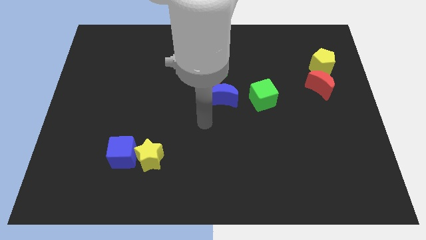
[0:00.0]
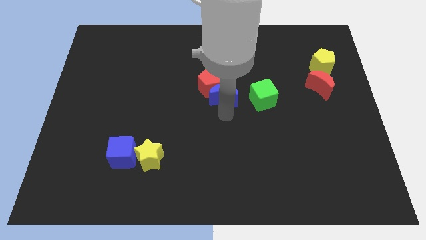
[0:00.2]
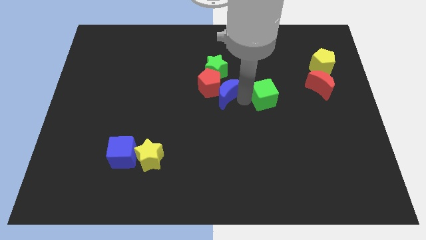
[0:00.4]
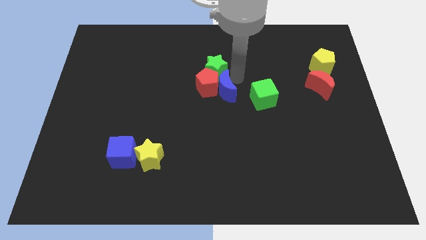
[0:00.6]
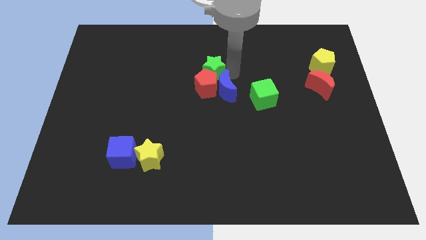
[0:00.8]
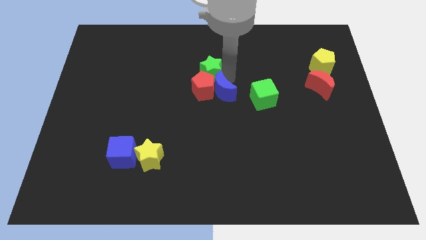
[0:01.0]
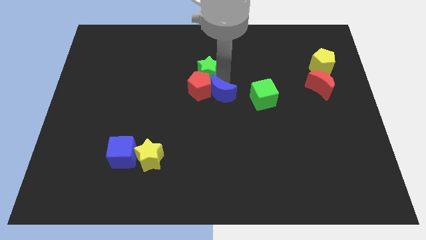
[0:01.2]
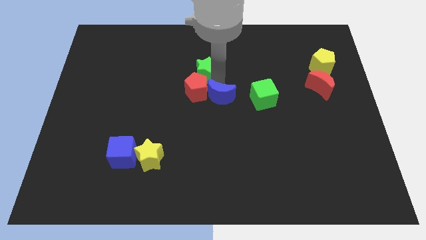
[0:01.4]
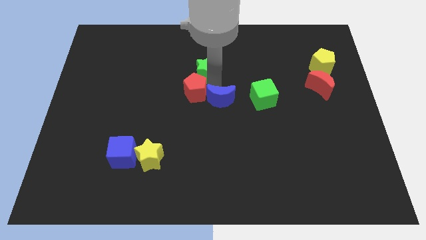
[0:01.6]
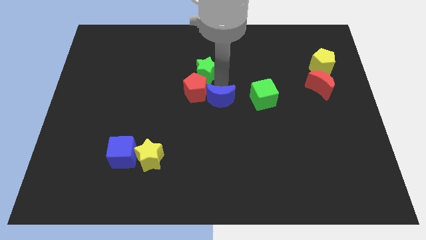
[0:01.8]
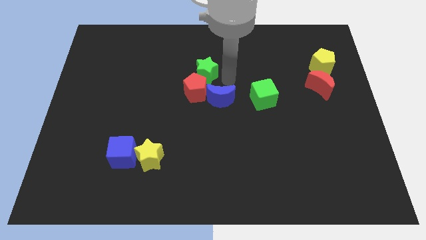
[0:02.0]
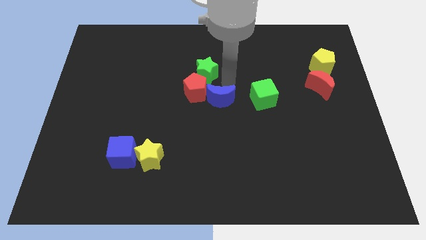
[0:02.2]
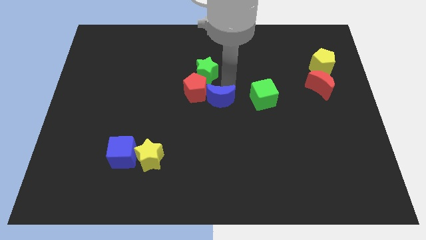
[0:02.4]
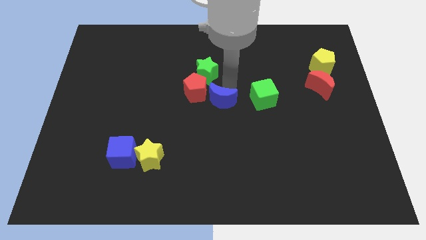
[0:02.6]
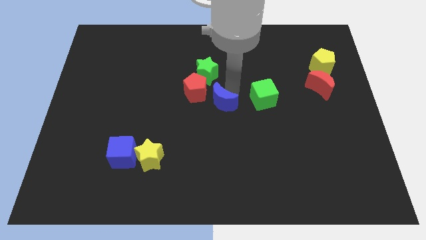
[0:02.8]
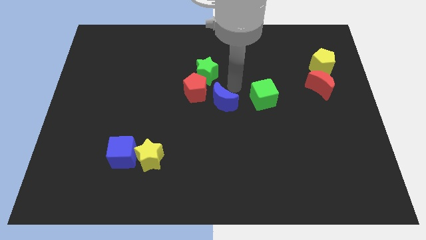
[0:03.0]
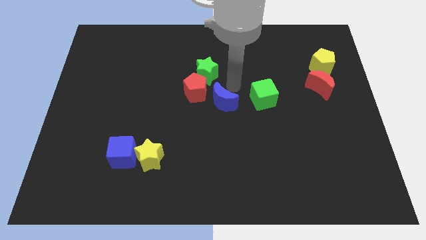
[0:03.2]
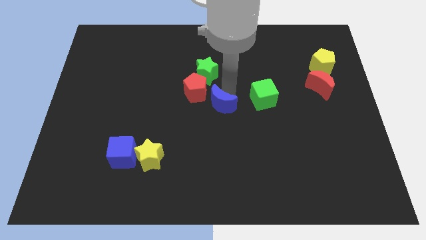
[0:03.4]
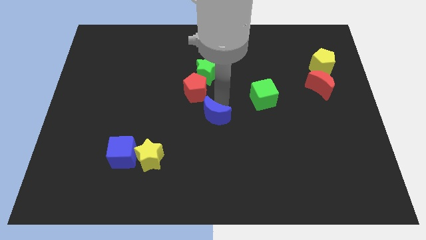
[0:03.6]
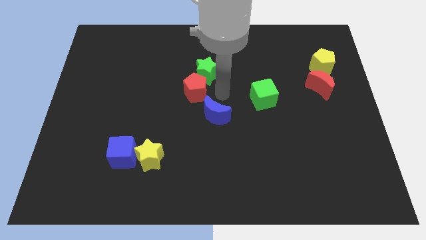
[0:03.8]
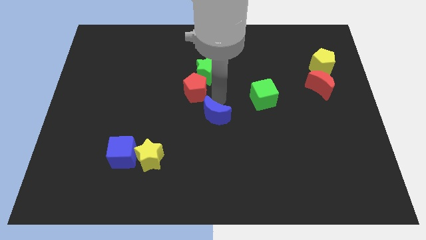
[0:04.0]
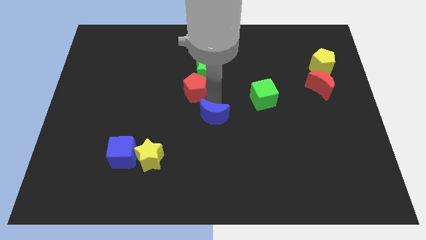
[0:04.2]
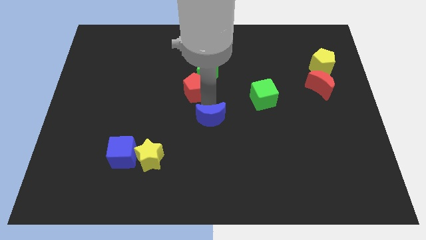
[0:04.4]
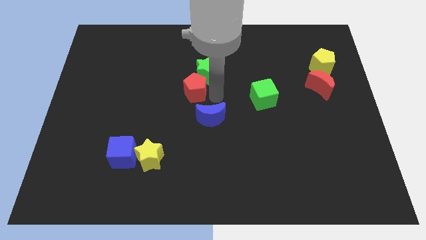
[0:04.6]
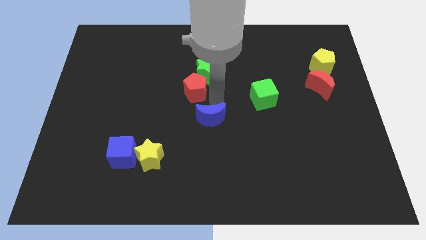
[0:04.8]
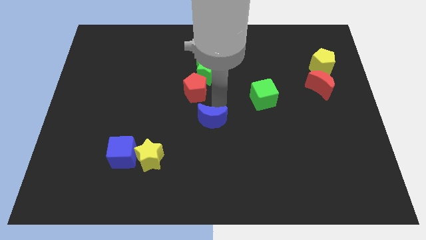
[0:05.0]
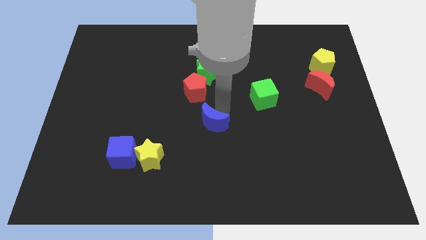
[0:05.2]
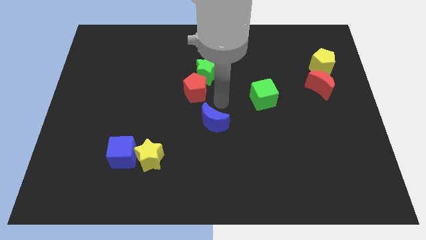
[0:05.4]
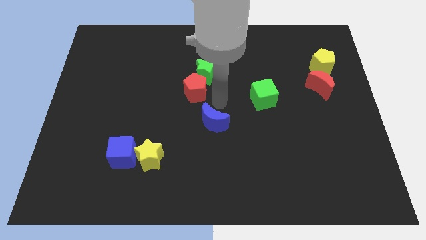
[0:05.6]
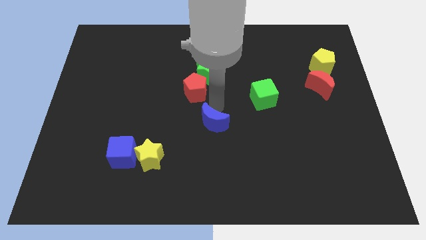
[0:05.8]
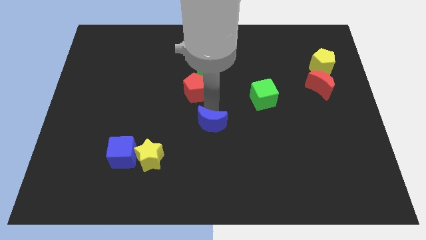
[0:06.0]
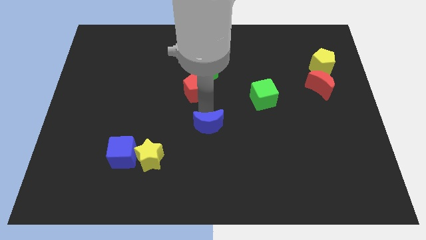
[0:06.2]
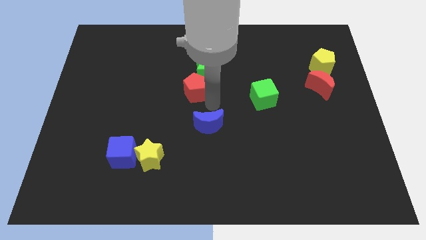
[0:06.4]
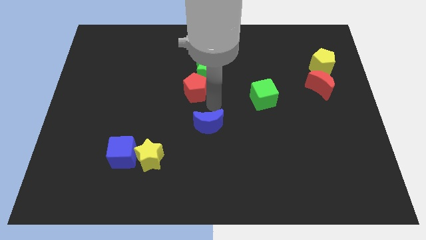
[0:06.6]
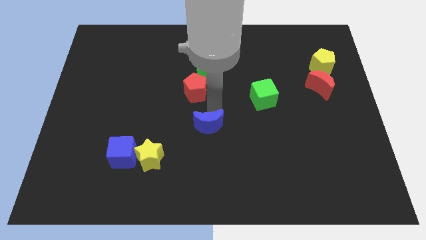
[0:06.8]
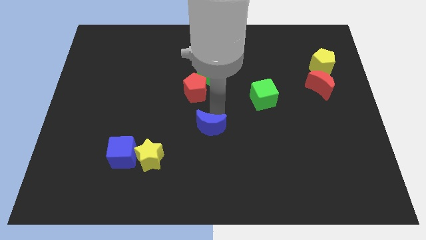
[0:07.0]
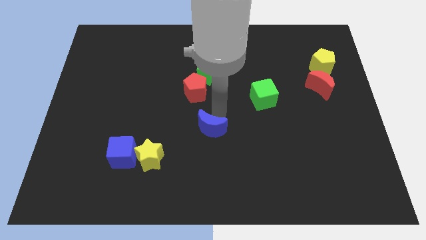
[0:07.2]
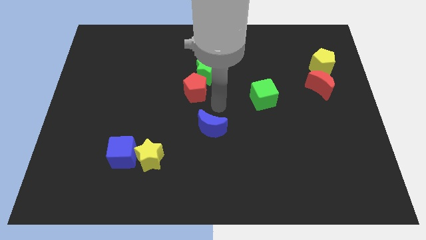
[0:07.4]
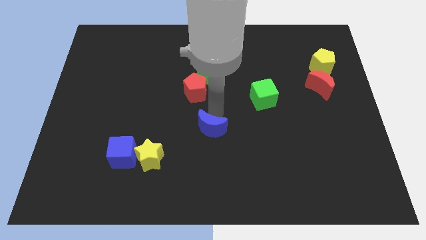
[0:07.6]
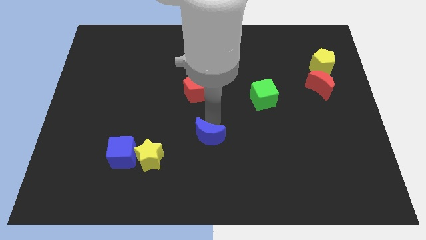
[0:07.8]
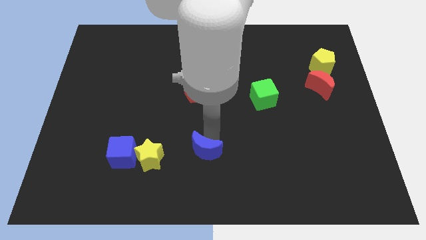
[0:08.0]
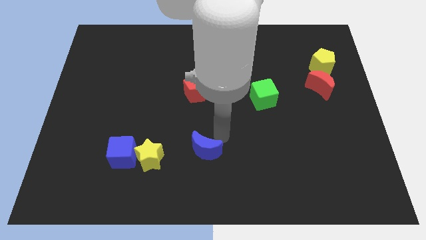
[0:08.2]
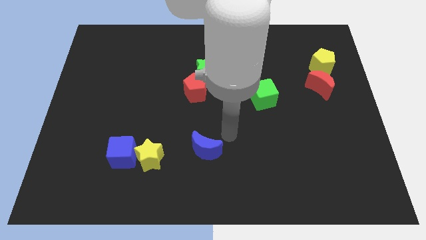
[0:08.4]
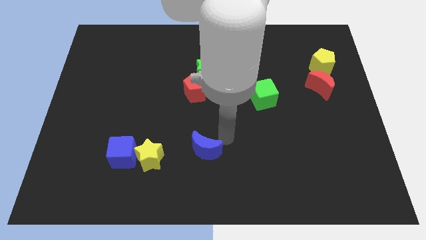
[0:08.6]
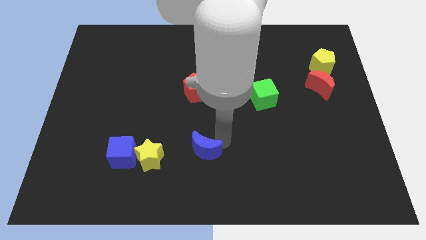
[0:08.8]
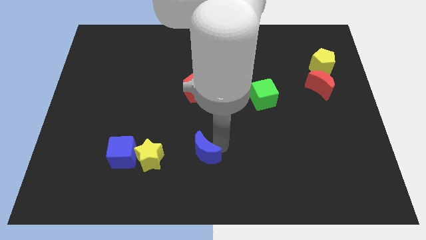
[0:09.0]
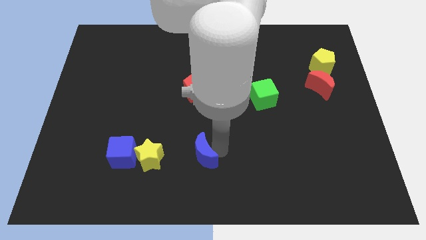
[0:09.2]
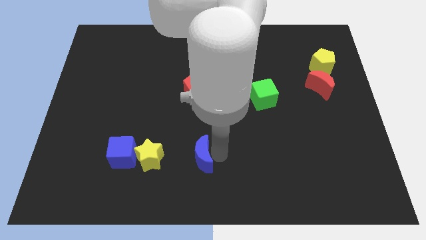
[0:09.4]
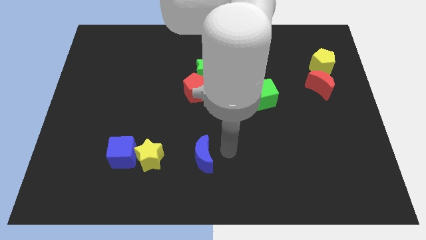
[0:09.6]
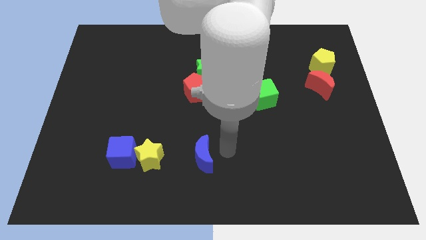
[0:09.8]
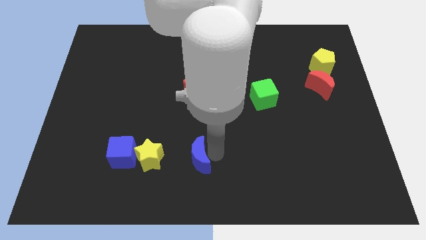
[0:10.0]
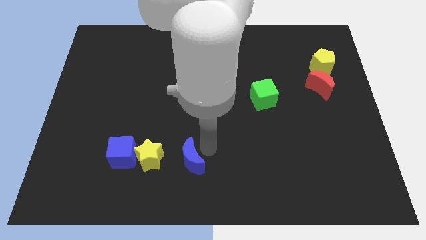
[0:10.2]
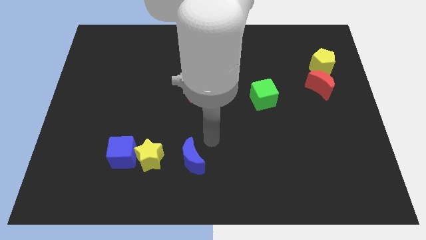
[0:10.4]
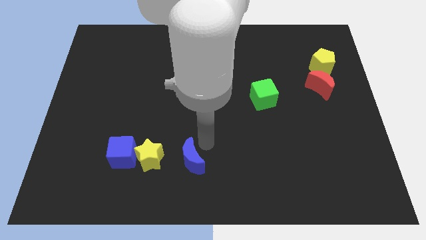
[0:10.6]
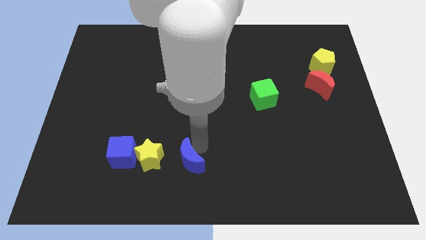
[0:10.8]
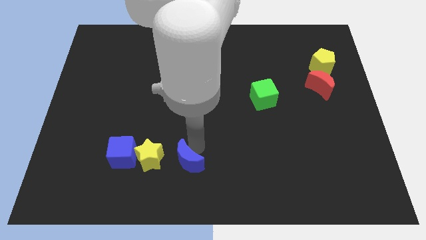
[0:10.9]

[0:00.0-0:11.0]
slide the blue moon diagonally down and to the right of the yellow star

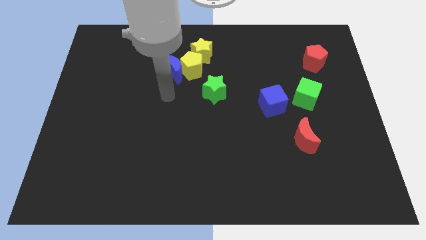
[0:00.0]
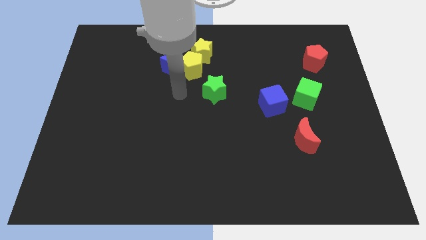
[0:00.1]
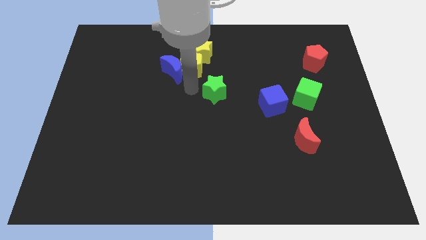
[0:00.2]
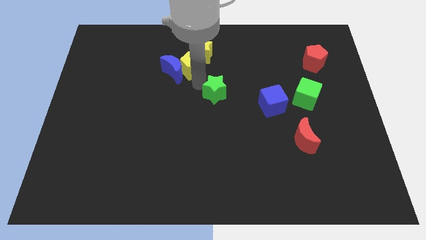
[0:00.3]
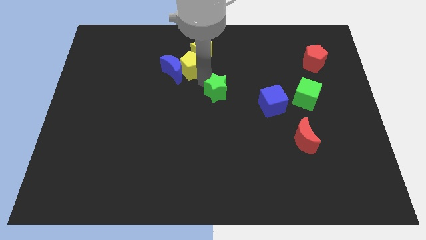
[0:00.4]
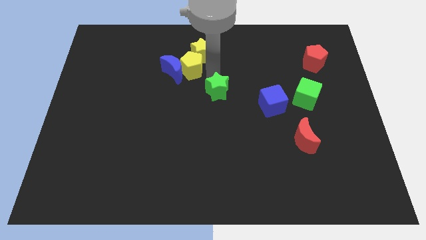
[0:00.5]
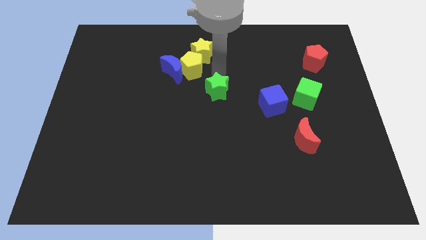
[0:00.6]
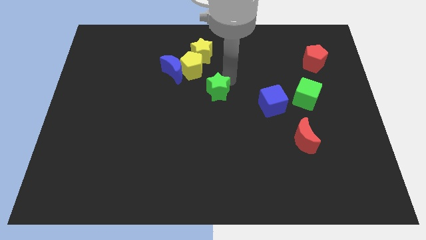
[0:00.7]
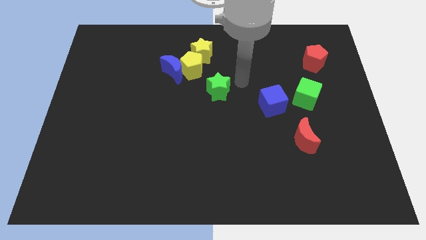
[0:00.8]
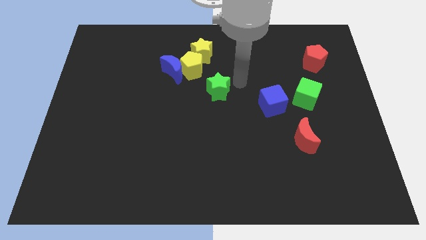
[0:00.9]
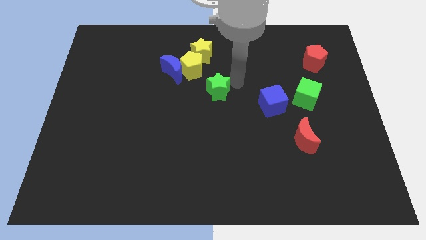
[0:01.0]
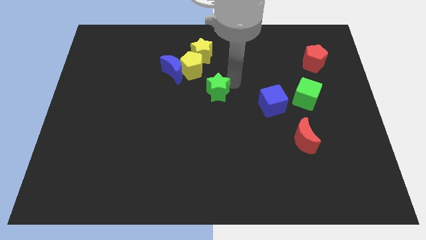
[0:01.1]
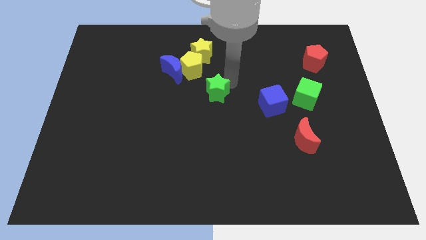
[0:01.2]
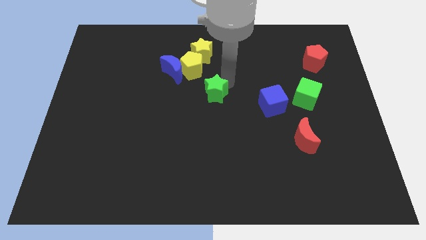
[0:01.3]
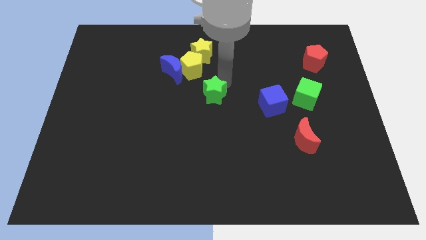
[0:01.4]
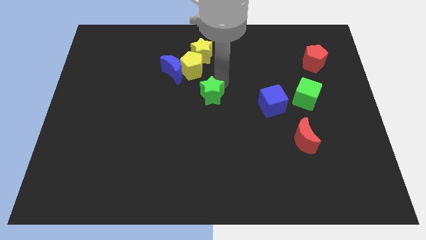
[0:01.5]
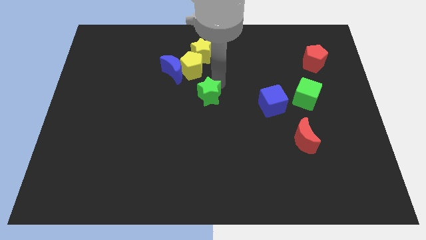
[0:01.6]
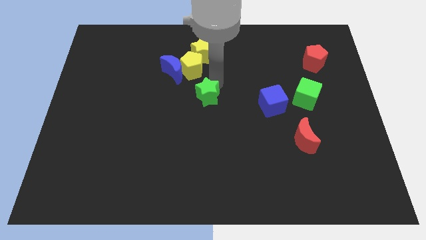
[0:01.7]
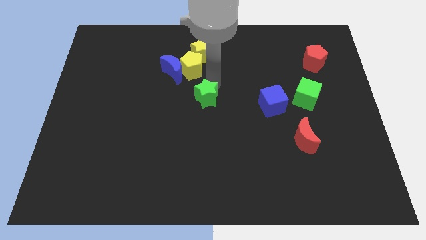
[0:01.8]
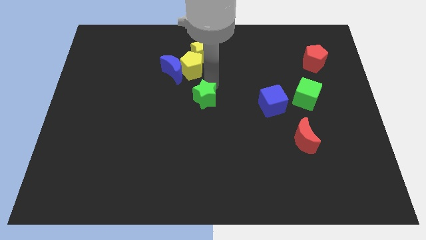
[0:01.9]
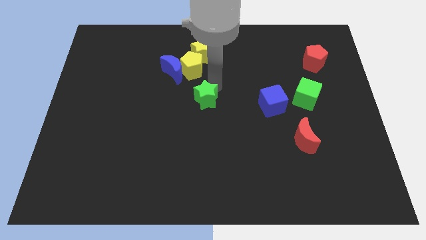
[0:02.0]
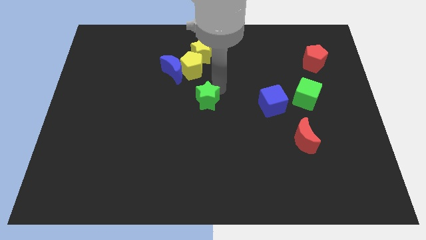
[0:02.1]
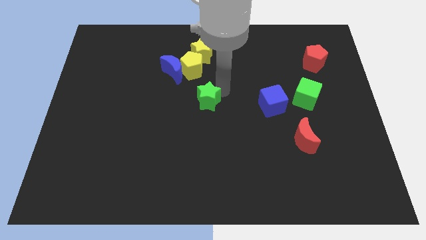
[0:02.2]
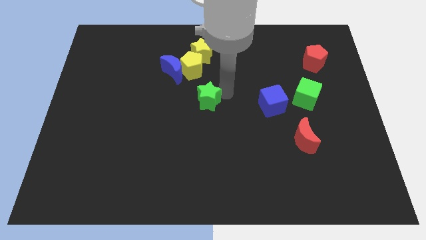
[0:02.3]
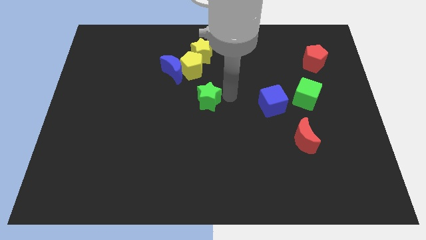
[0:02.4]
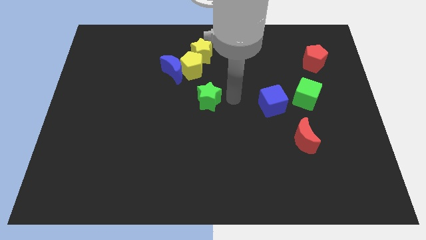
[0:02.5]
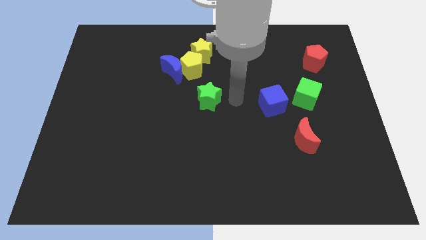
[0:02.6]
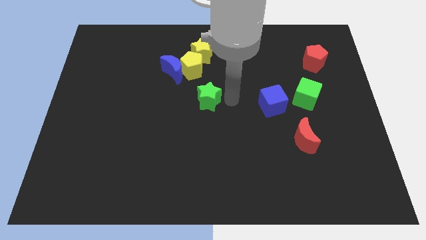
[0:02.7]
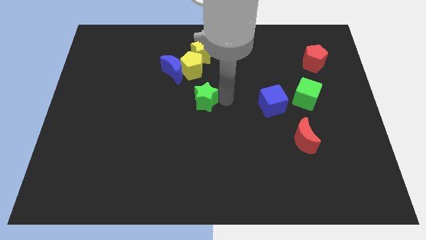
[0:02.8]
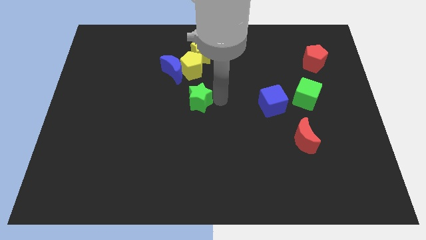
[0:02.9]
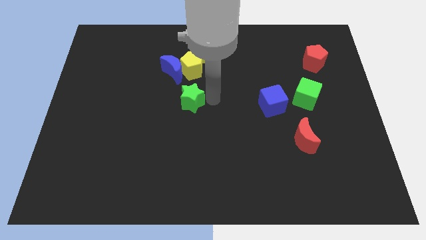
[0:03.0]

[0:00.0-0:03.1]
put the green star to the bottom side of the blue moon

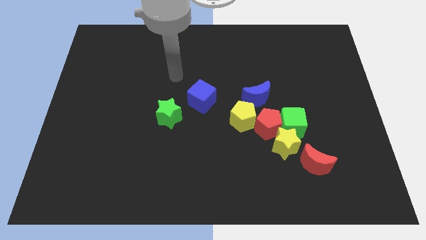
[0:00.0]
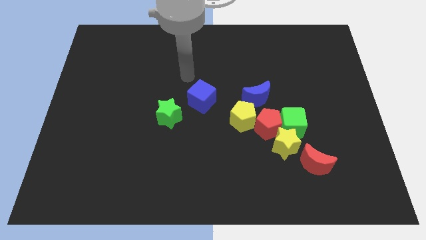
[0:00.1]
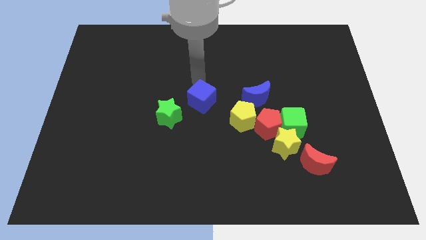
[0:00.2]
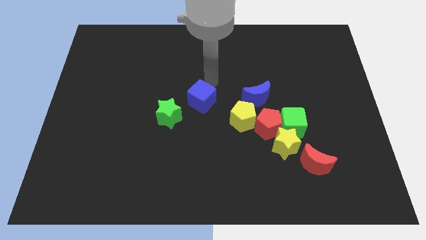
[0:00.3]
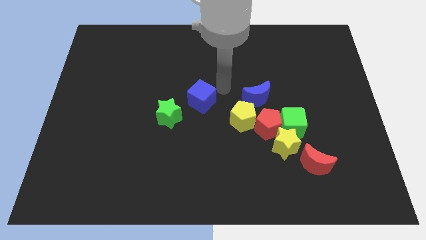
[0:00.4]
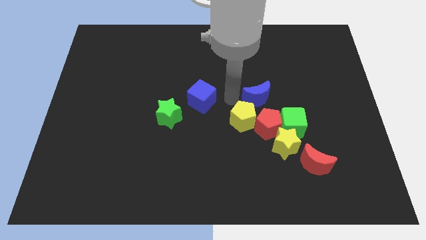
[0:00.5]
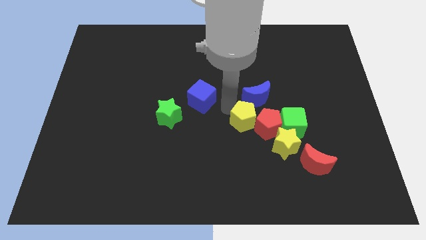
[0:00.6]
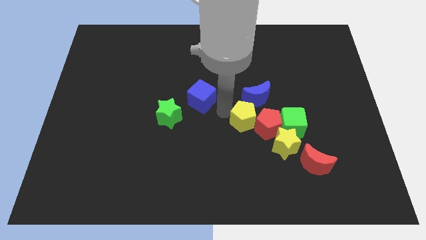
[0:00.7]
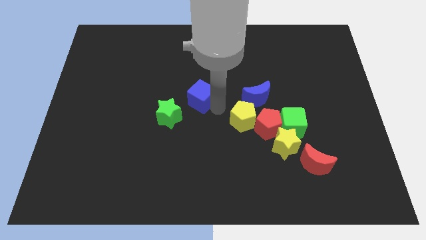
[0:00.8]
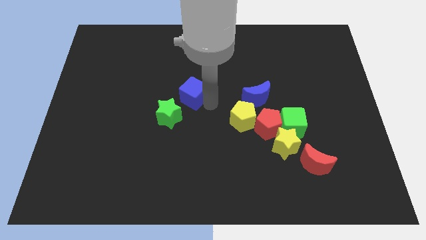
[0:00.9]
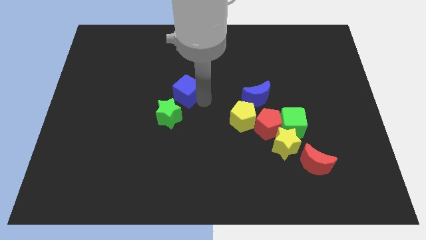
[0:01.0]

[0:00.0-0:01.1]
put the blue cube to the top side of the green star
